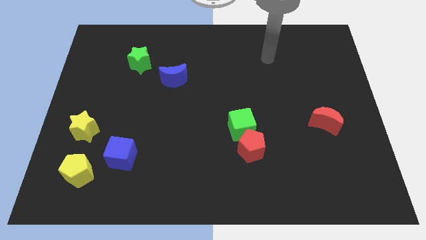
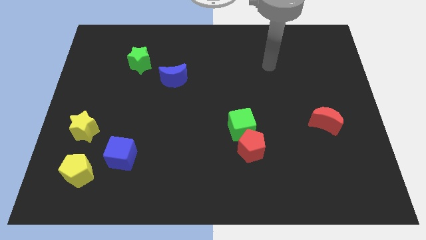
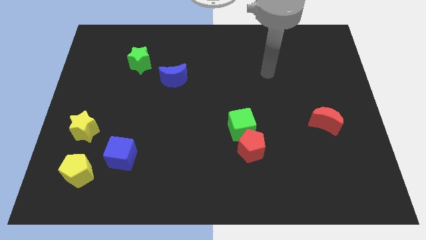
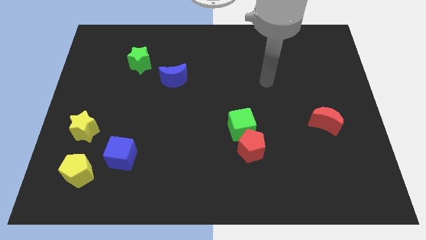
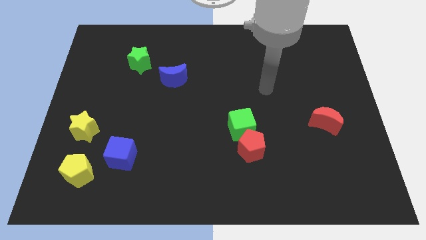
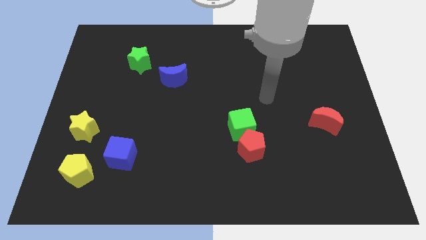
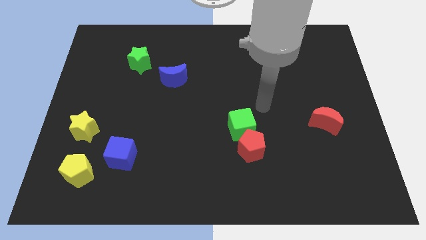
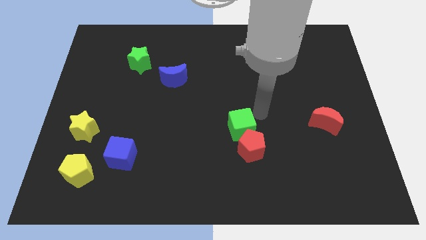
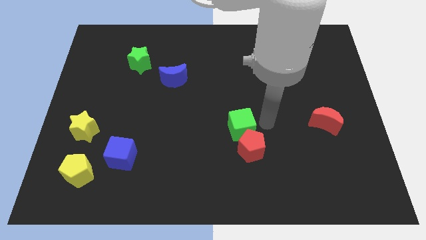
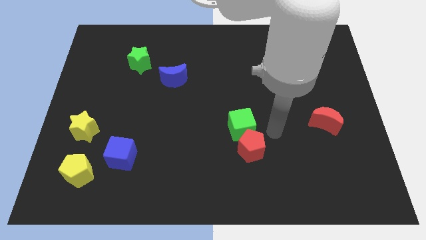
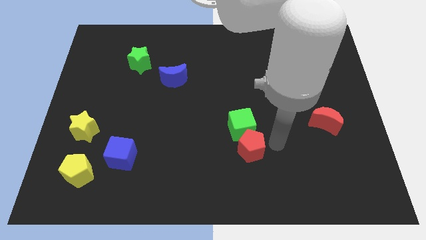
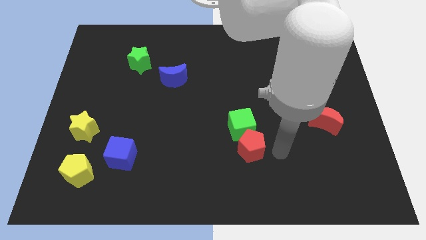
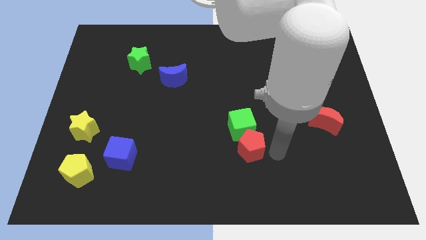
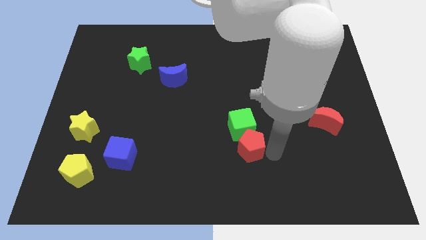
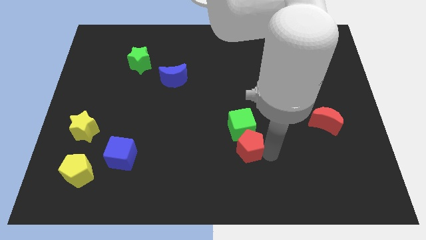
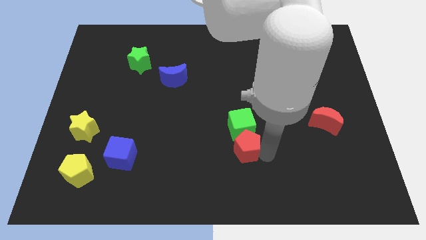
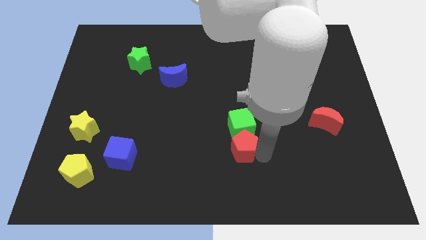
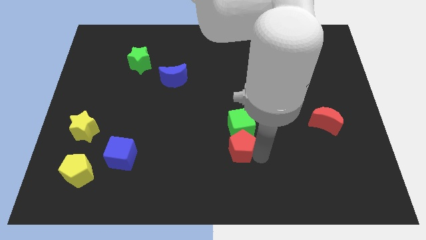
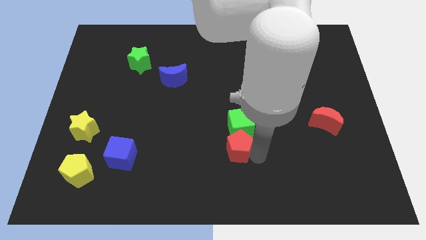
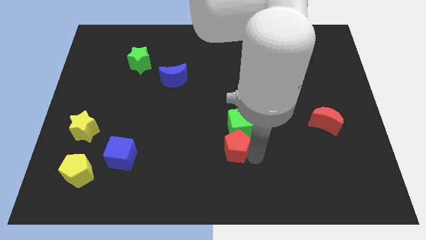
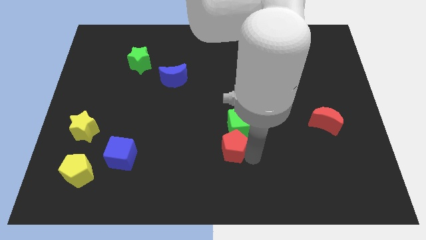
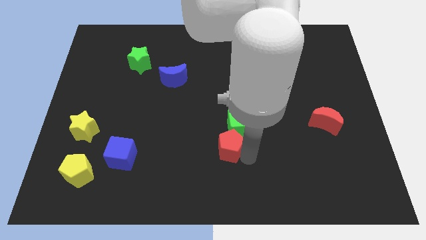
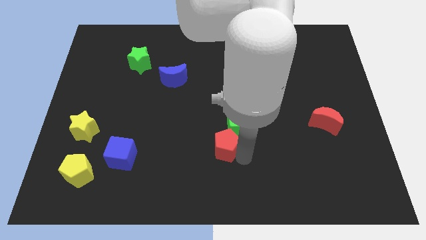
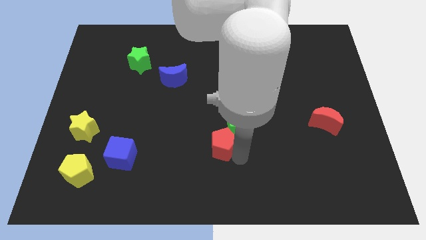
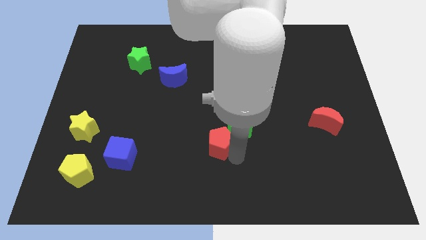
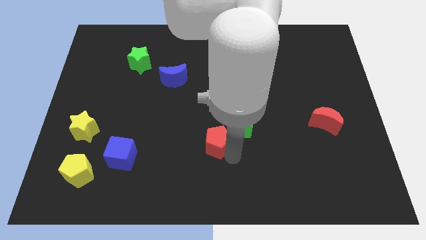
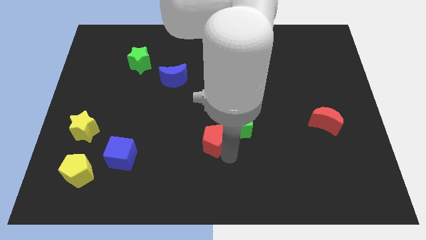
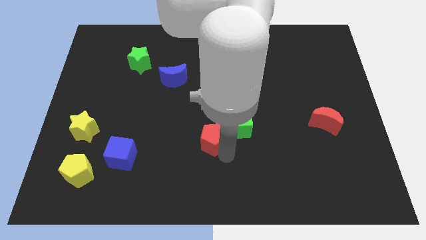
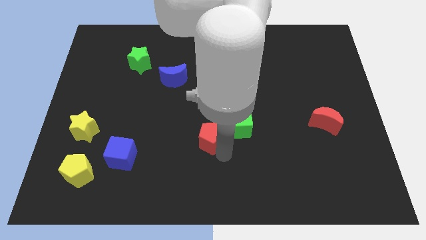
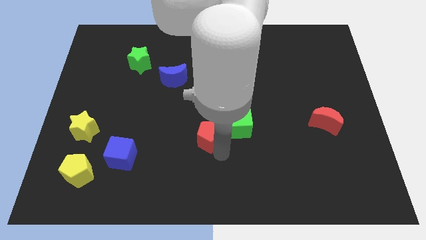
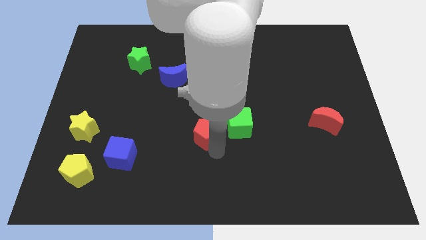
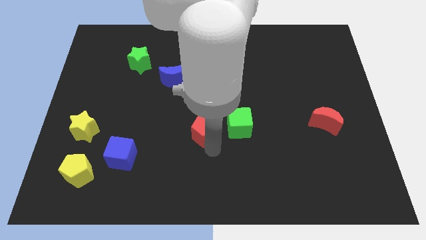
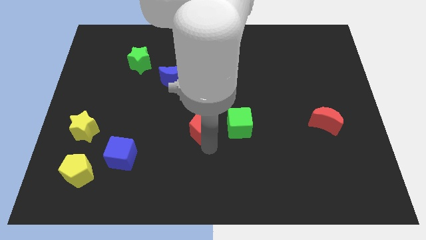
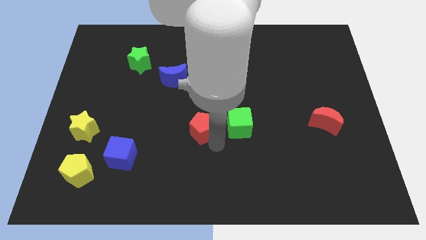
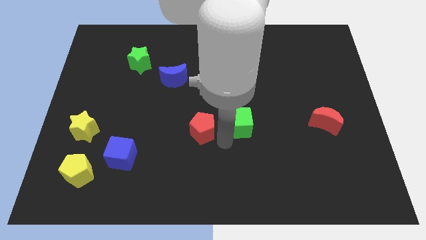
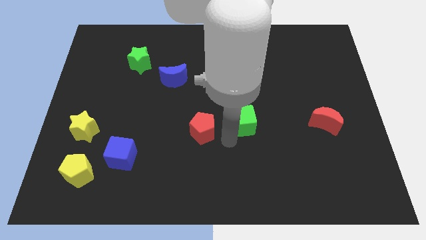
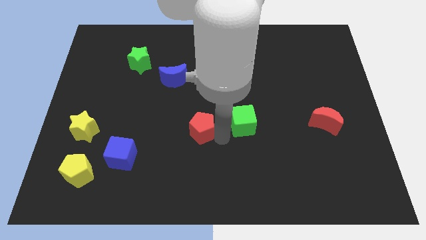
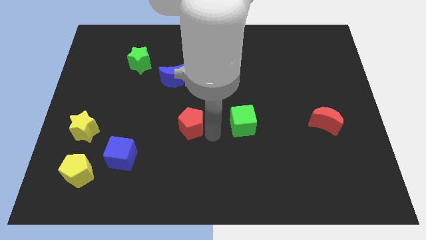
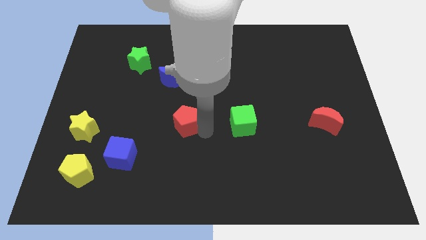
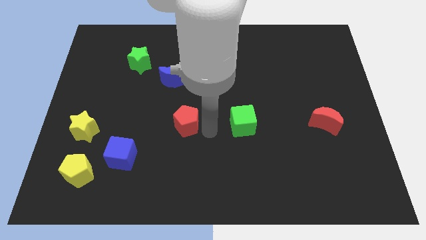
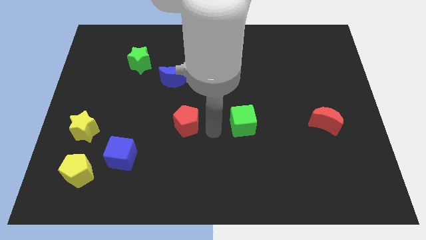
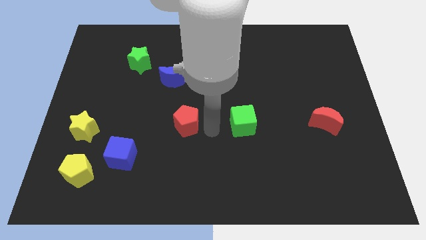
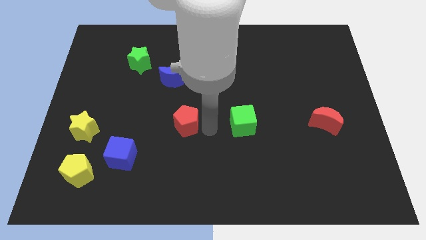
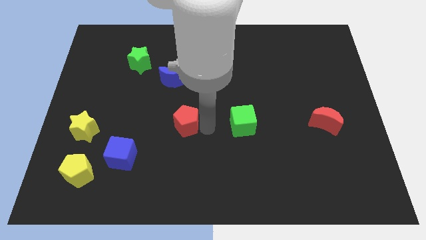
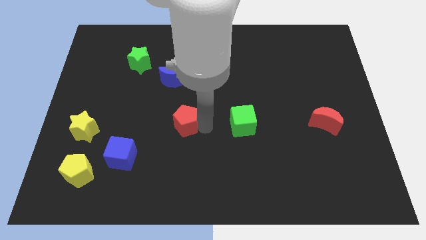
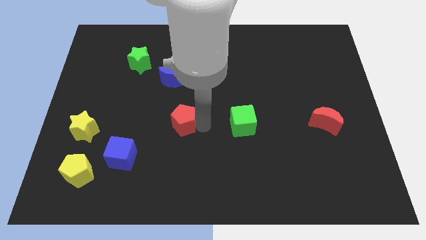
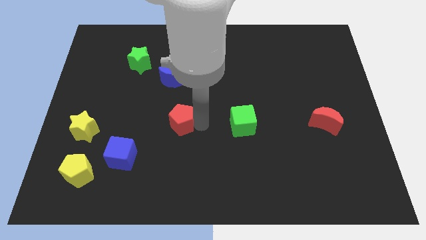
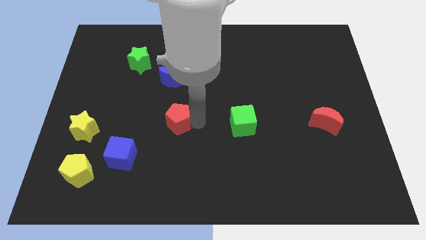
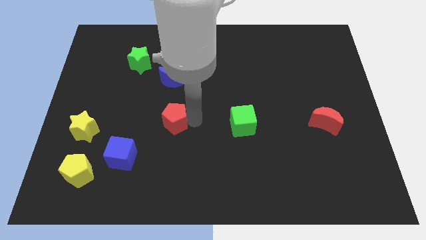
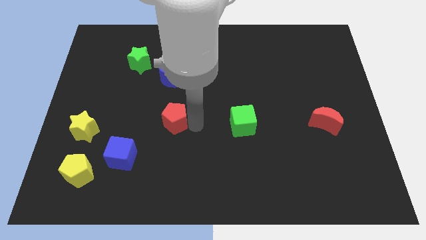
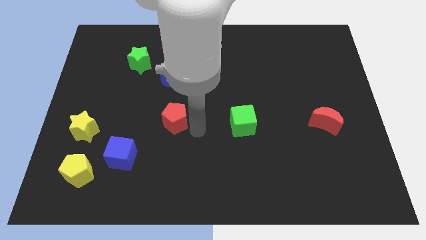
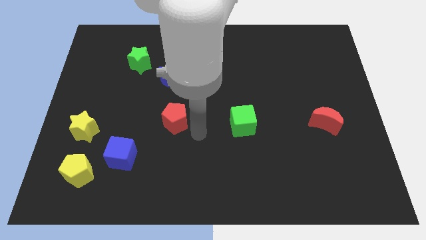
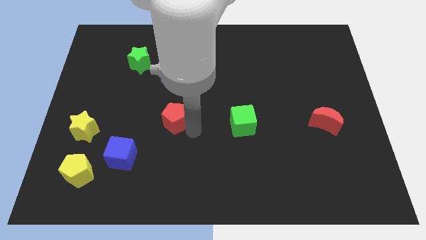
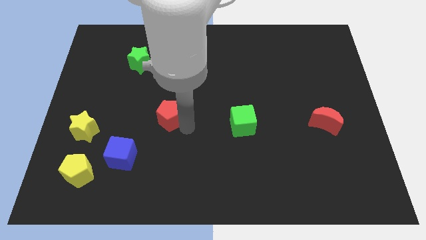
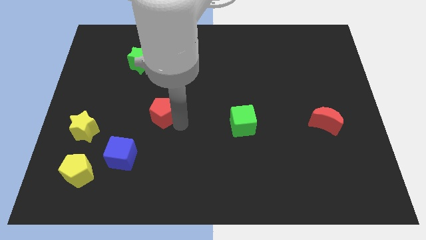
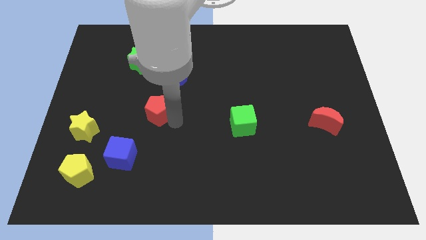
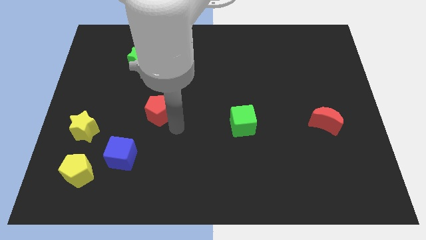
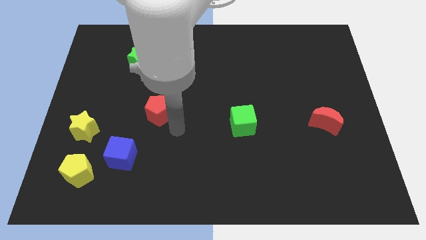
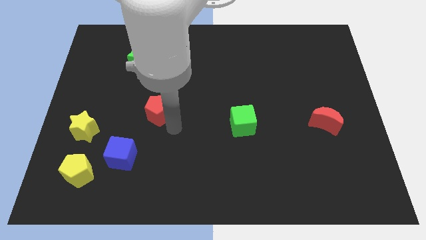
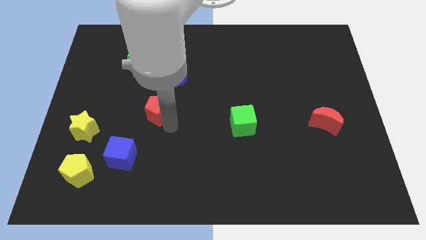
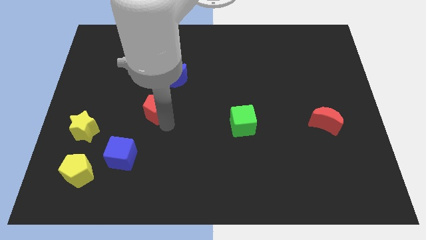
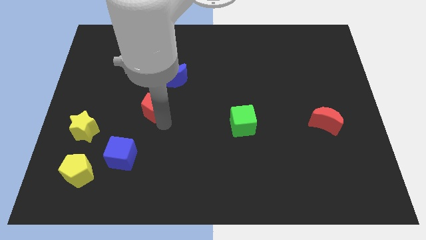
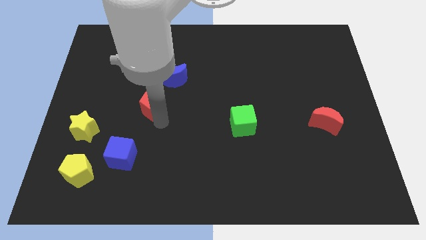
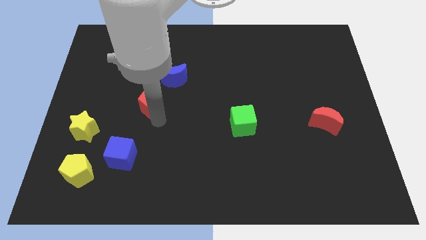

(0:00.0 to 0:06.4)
slide the red pentagon below the green star
